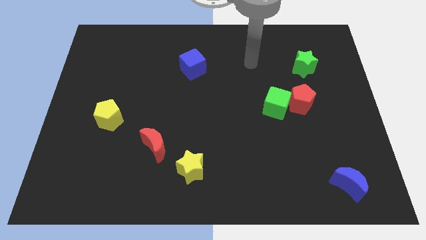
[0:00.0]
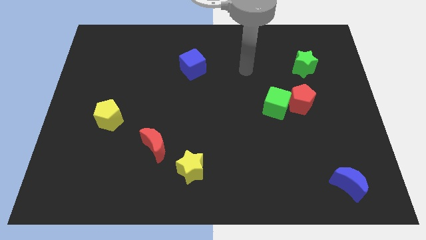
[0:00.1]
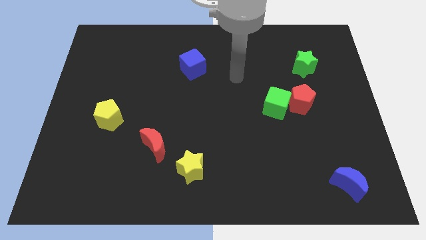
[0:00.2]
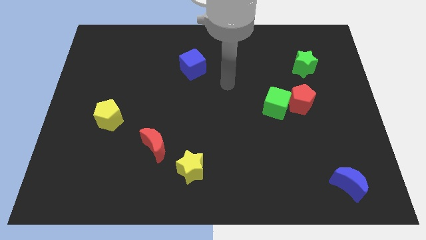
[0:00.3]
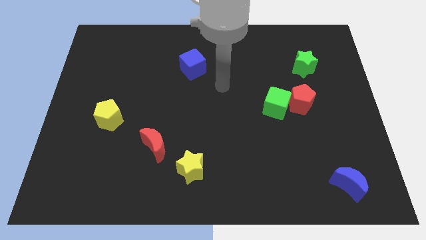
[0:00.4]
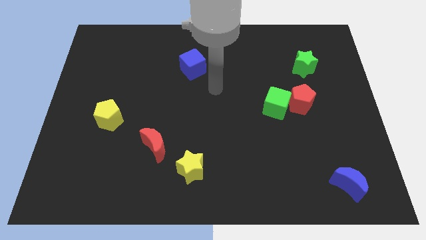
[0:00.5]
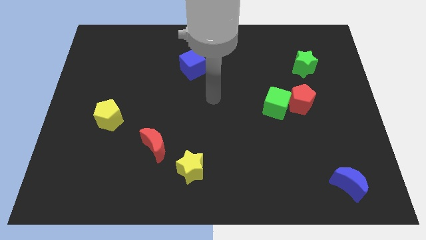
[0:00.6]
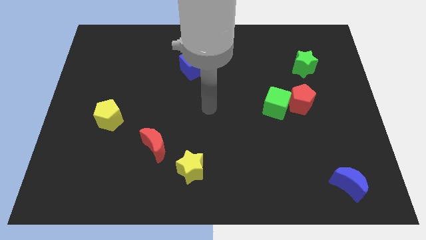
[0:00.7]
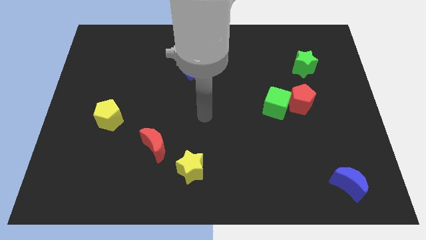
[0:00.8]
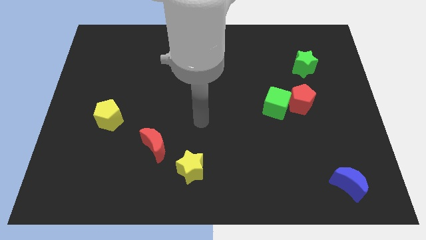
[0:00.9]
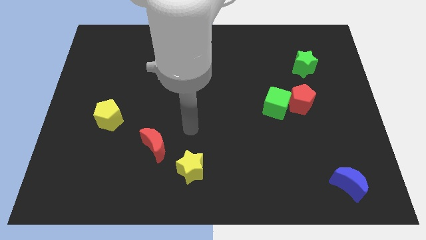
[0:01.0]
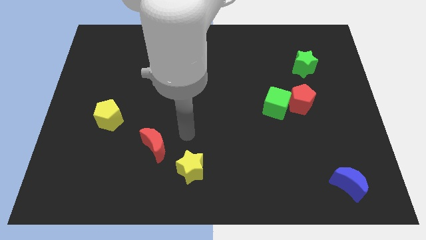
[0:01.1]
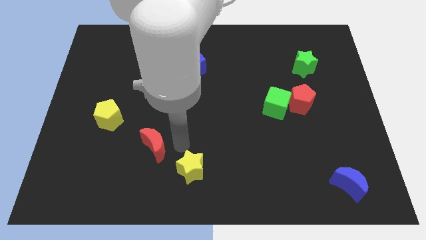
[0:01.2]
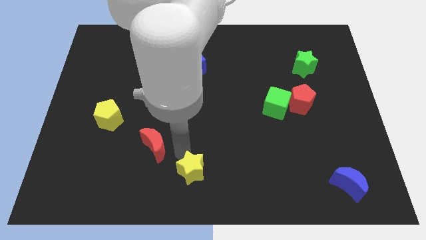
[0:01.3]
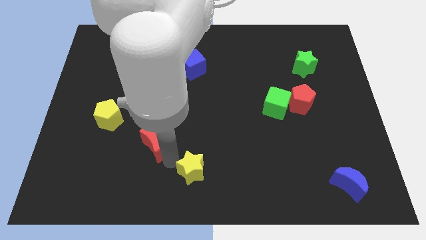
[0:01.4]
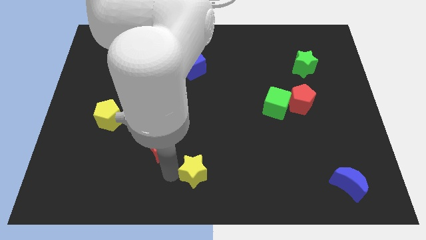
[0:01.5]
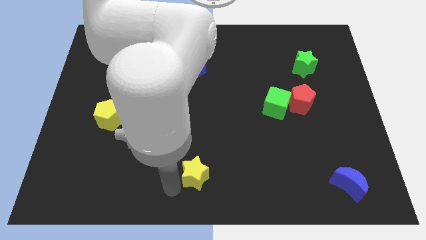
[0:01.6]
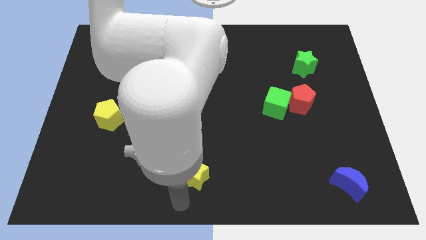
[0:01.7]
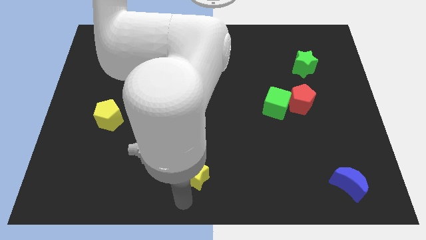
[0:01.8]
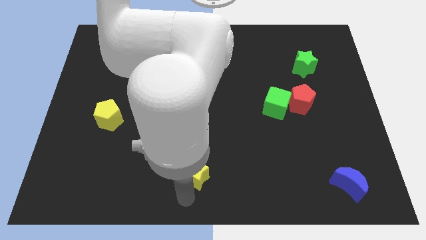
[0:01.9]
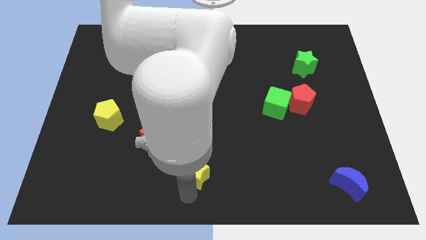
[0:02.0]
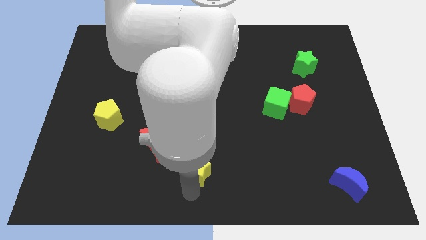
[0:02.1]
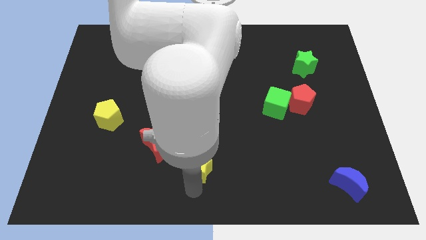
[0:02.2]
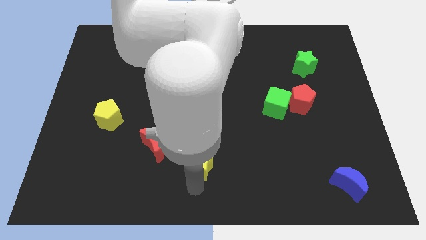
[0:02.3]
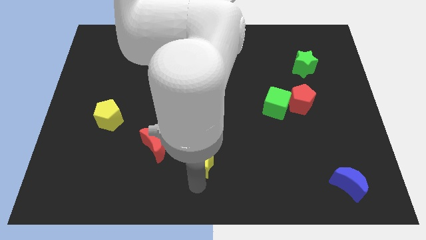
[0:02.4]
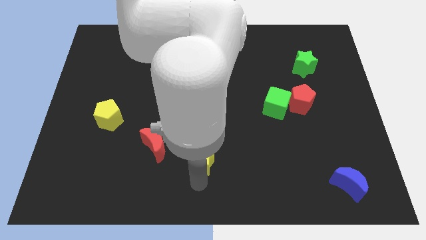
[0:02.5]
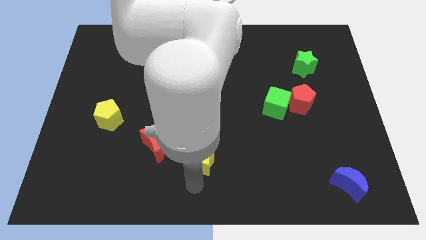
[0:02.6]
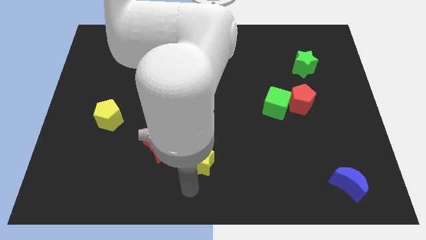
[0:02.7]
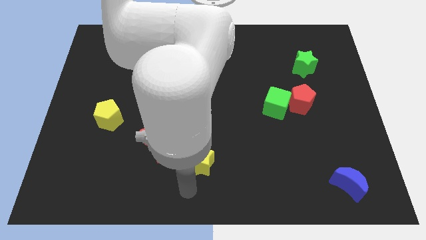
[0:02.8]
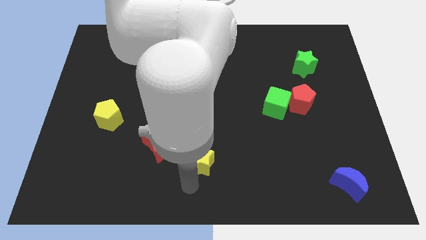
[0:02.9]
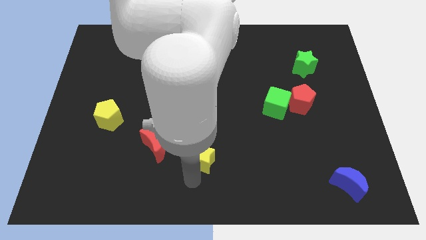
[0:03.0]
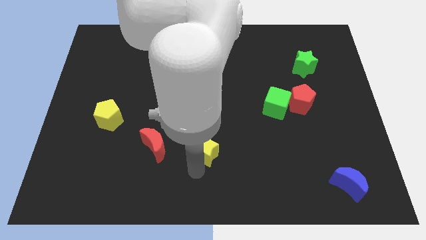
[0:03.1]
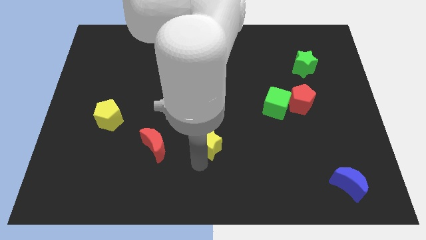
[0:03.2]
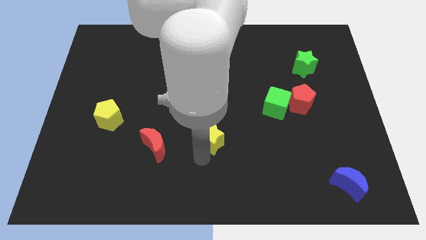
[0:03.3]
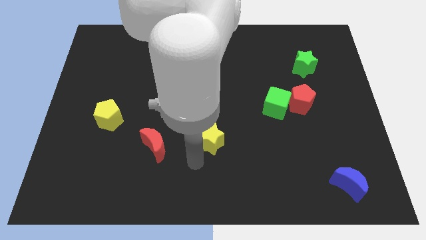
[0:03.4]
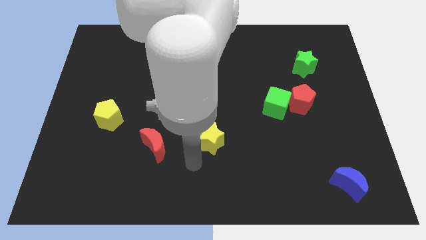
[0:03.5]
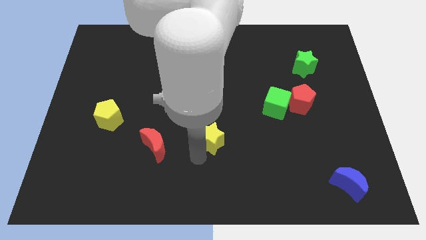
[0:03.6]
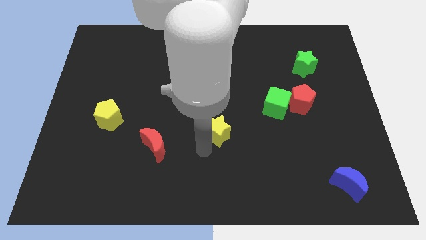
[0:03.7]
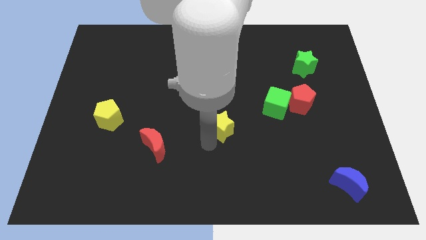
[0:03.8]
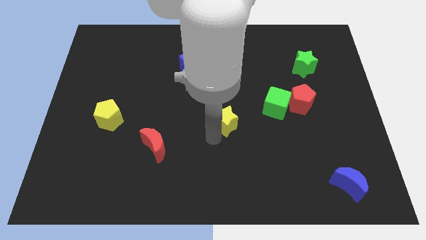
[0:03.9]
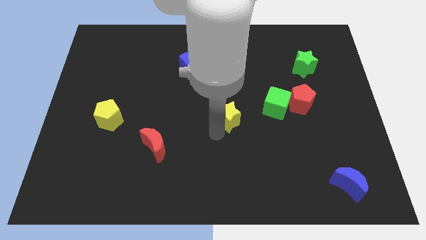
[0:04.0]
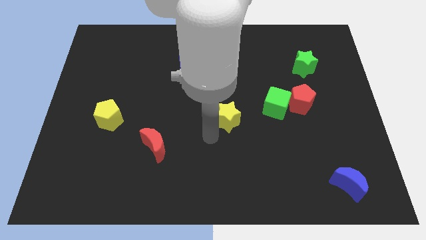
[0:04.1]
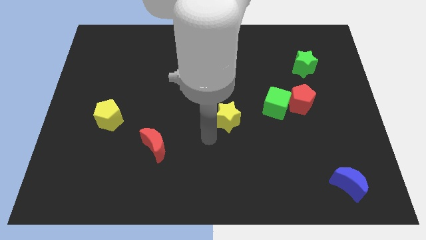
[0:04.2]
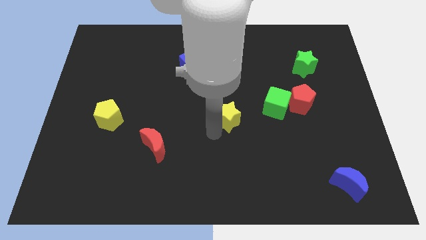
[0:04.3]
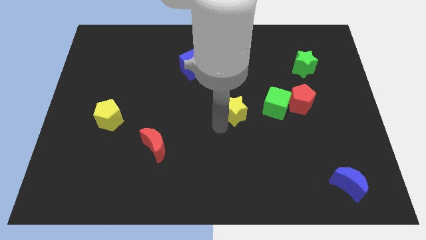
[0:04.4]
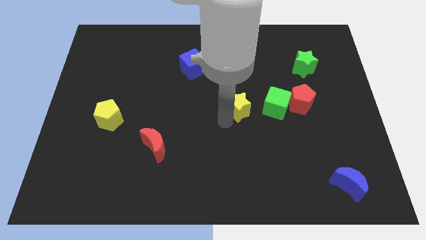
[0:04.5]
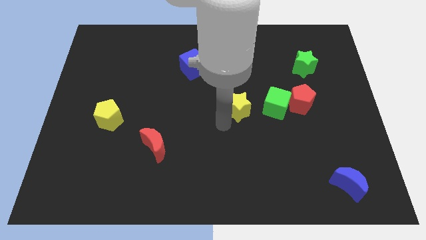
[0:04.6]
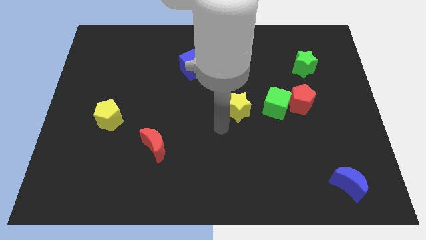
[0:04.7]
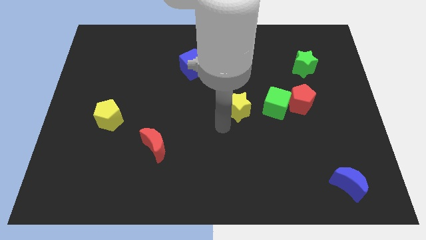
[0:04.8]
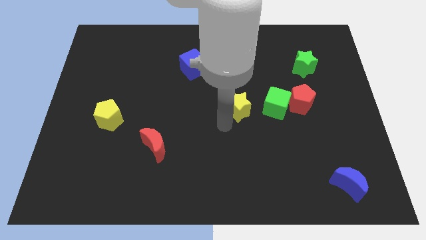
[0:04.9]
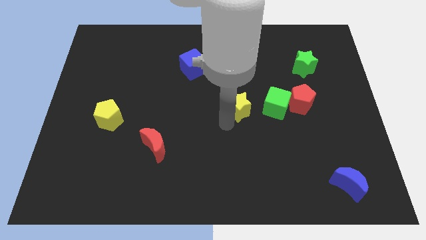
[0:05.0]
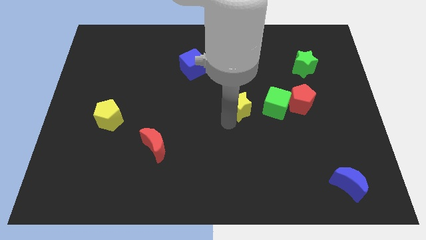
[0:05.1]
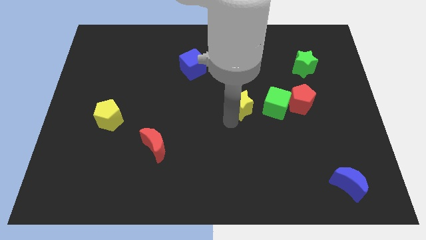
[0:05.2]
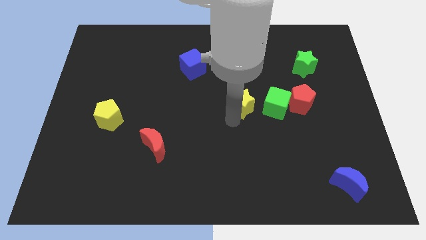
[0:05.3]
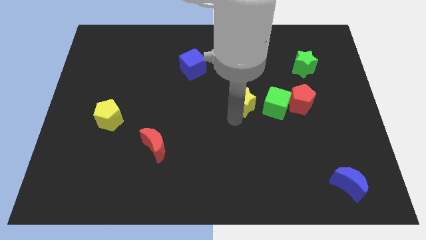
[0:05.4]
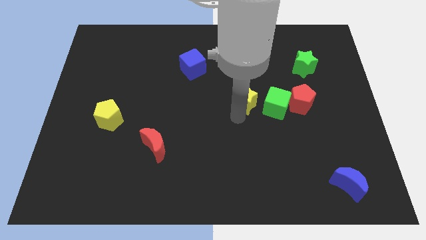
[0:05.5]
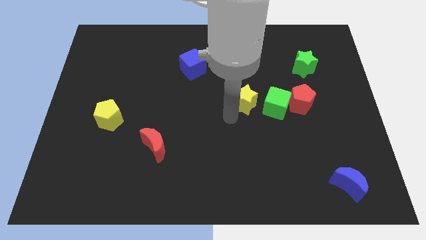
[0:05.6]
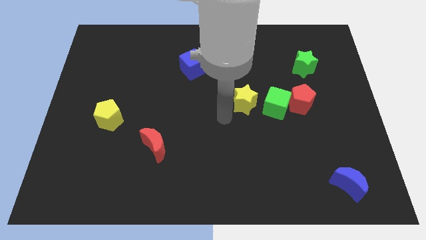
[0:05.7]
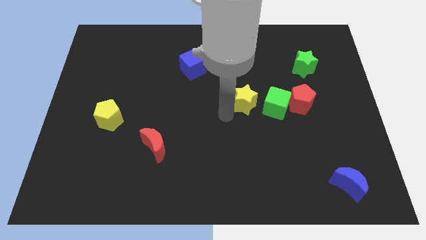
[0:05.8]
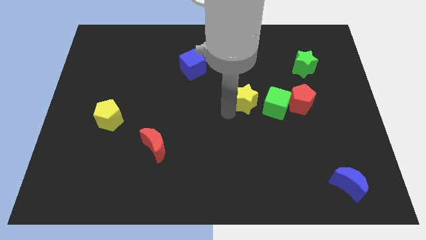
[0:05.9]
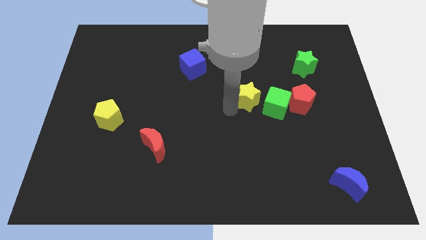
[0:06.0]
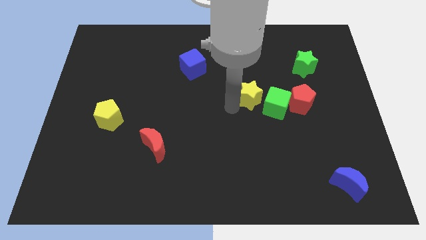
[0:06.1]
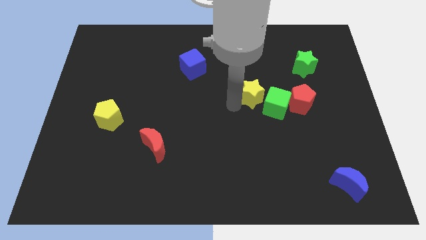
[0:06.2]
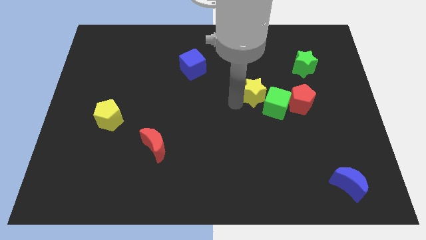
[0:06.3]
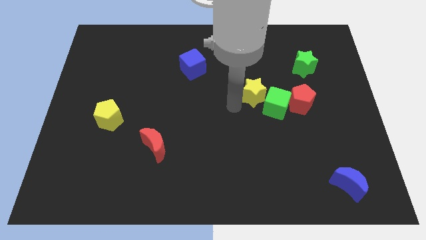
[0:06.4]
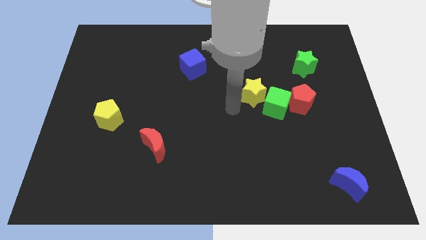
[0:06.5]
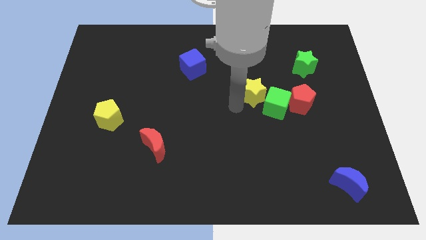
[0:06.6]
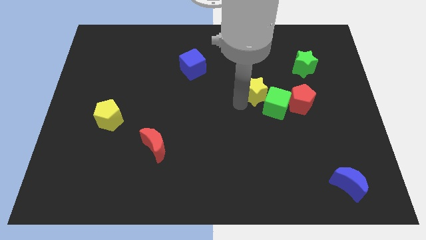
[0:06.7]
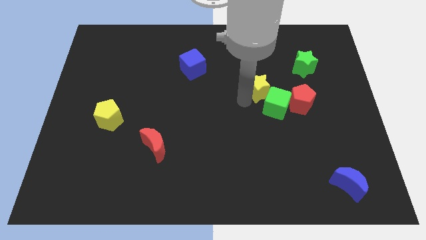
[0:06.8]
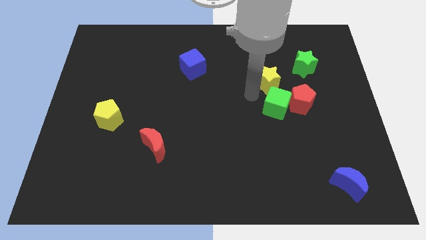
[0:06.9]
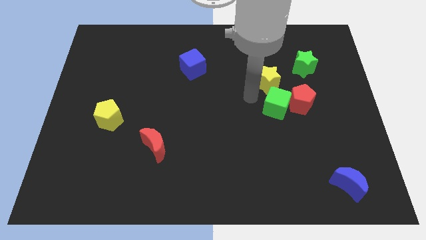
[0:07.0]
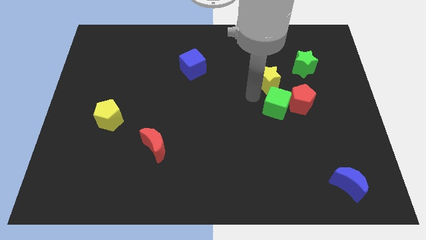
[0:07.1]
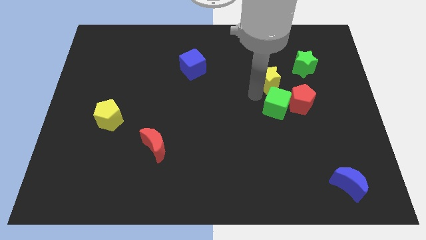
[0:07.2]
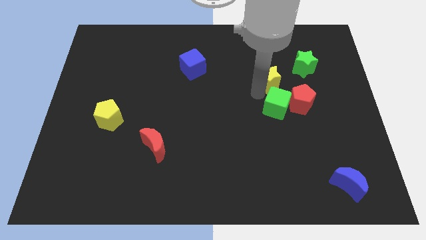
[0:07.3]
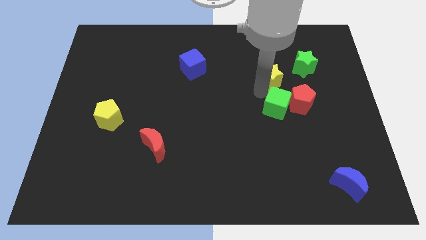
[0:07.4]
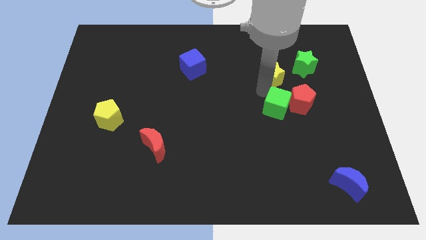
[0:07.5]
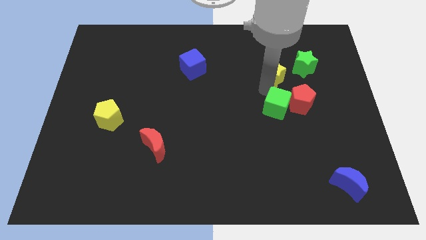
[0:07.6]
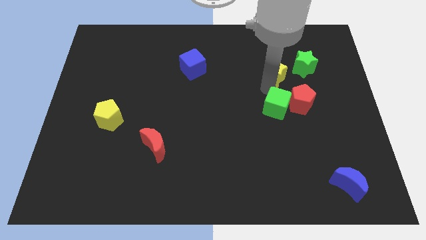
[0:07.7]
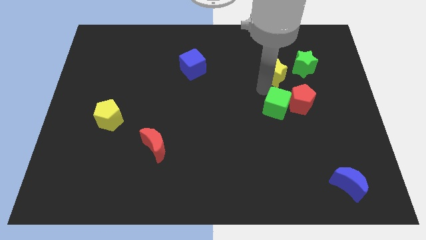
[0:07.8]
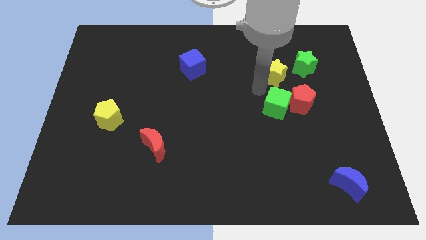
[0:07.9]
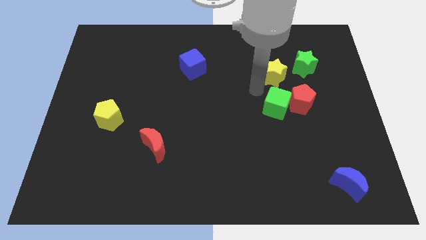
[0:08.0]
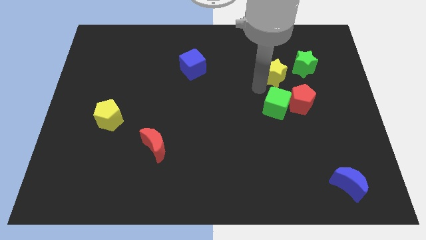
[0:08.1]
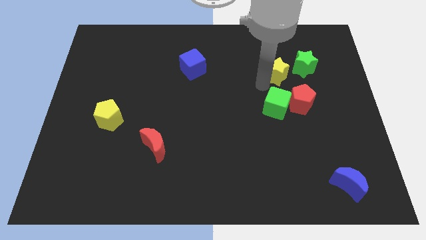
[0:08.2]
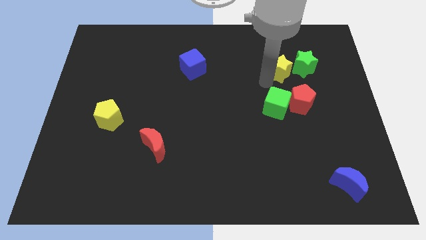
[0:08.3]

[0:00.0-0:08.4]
push the yellow star above the red pentagon
